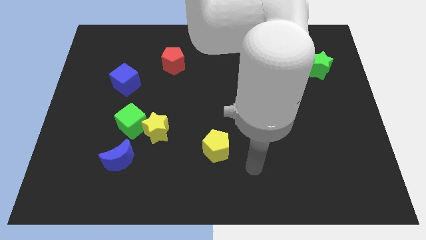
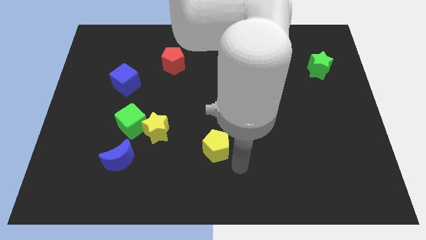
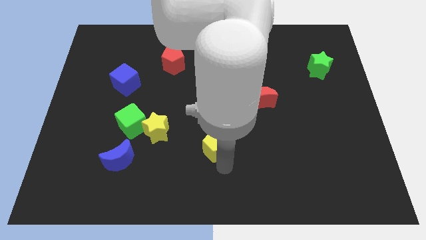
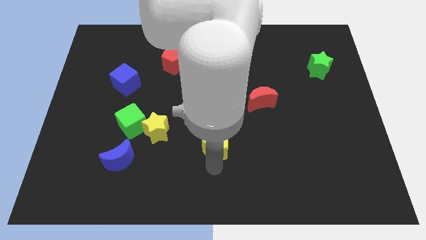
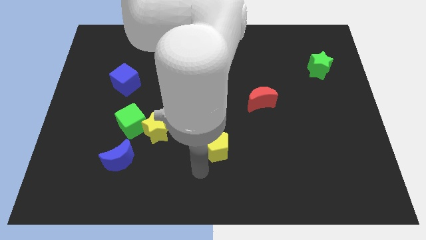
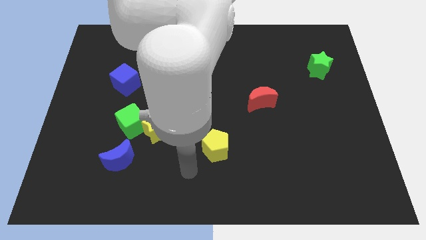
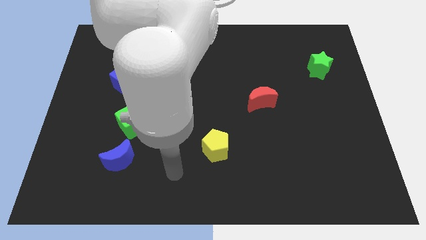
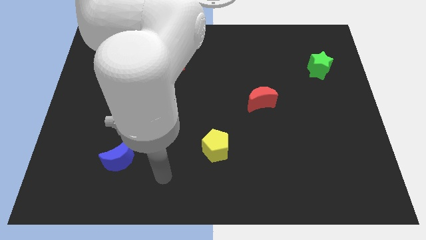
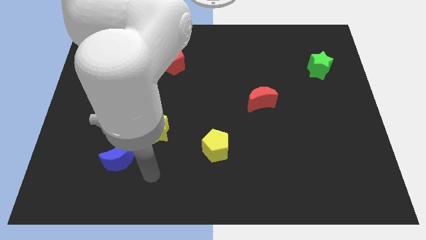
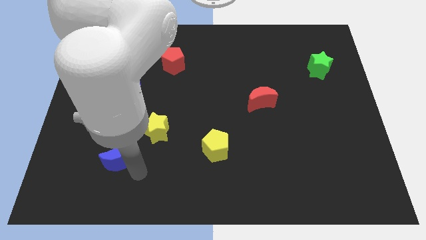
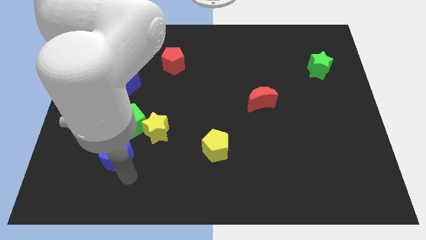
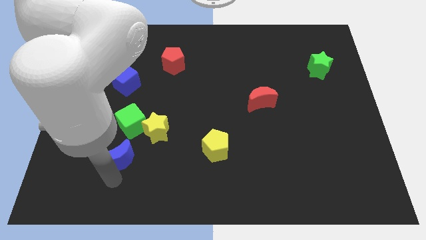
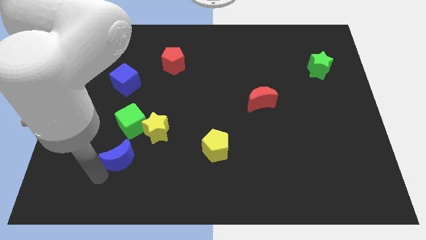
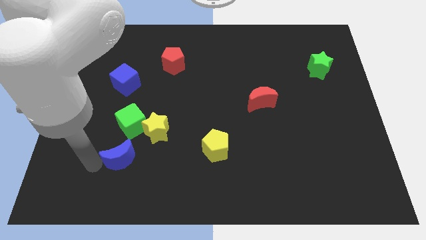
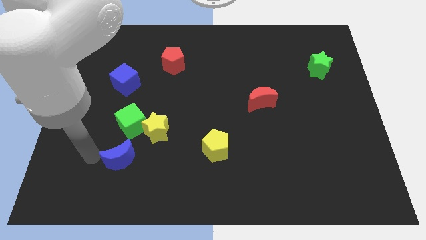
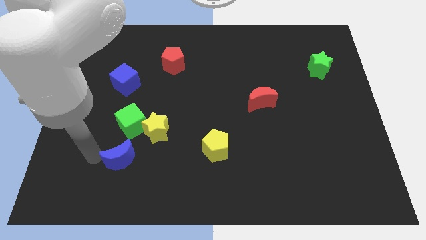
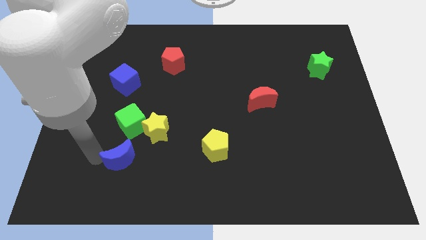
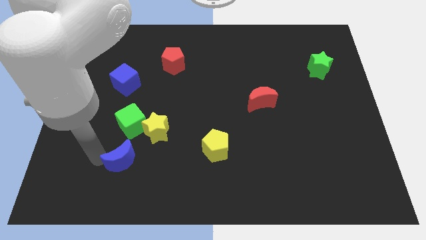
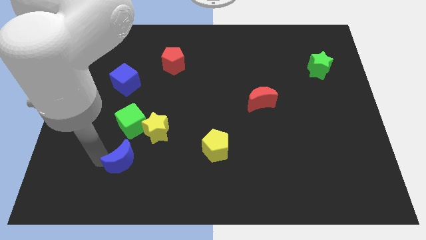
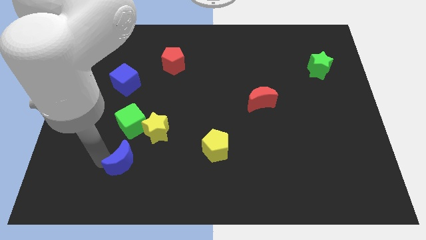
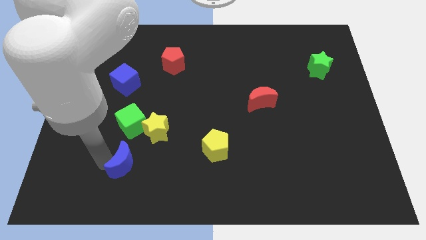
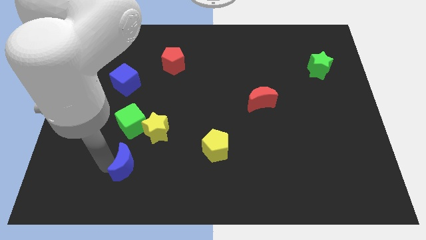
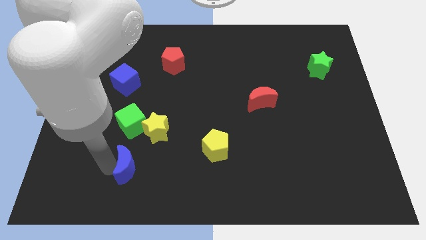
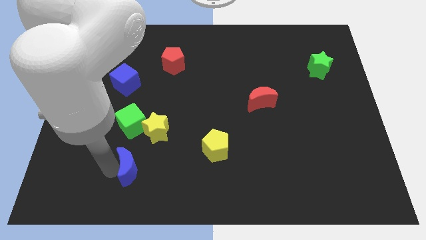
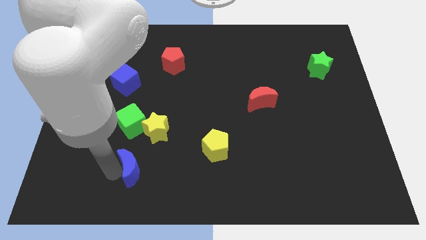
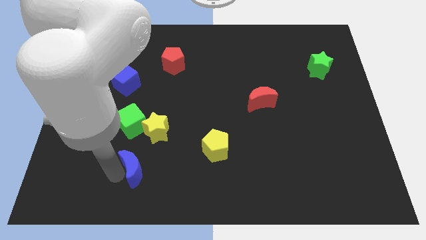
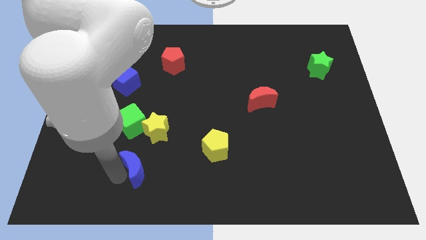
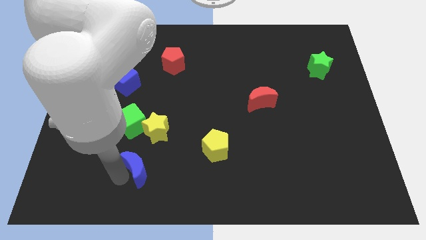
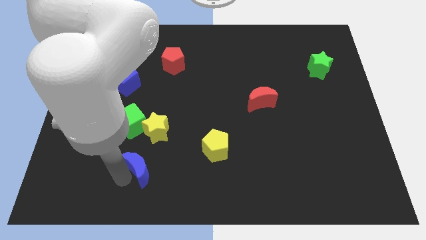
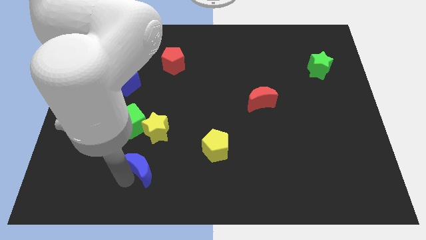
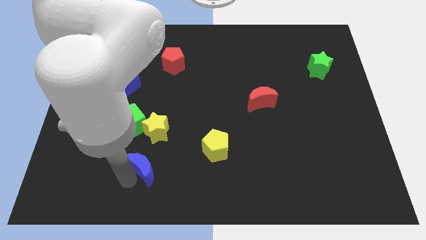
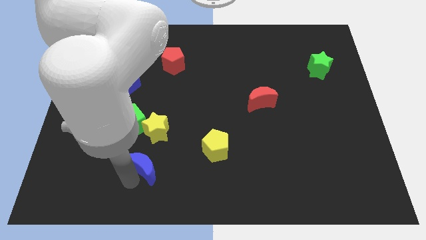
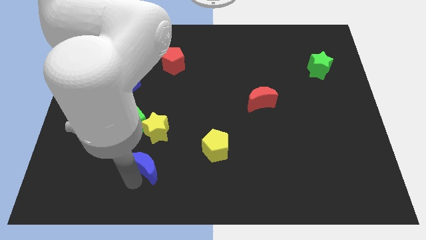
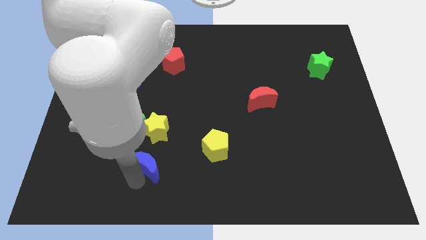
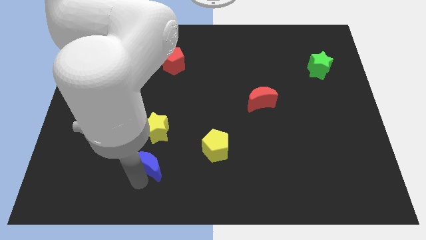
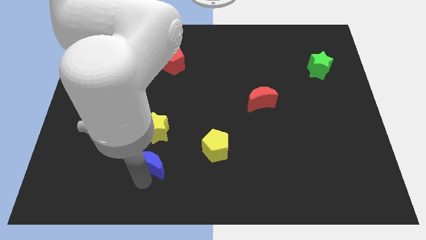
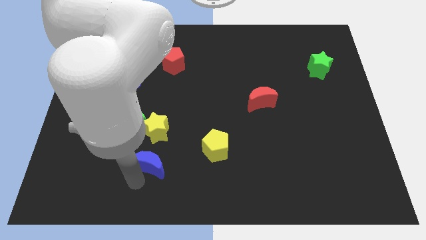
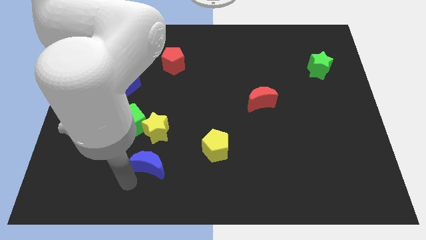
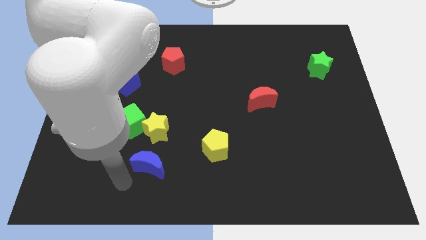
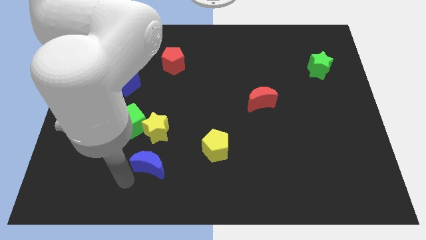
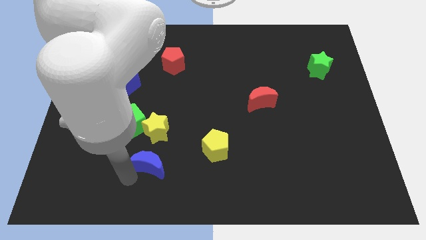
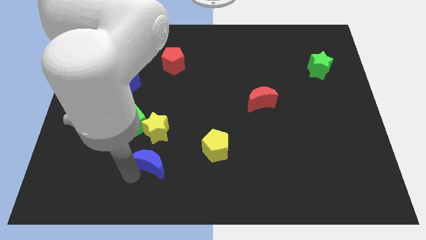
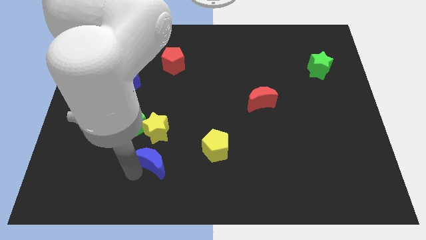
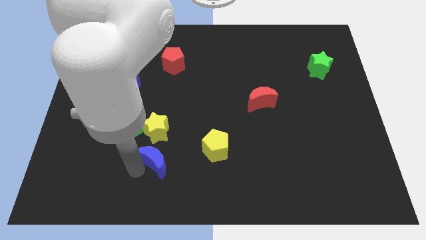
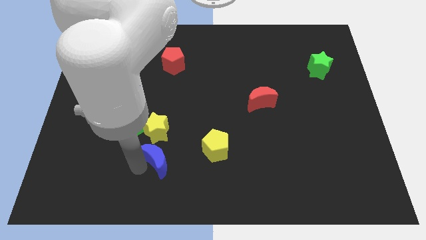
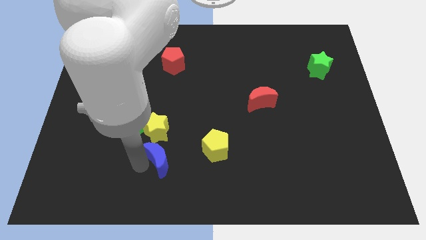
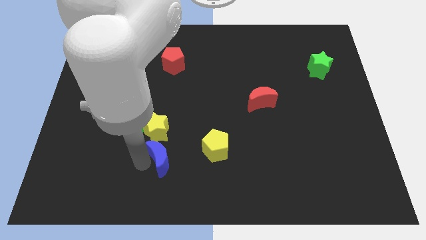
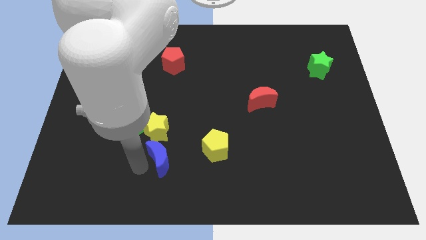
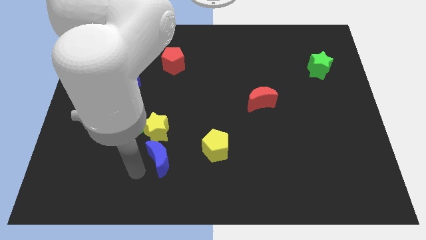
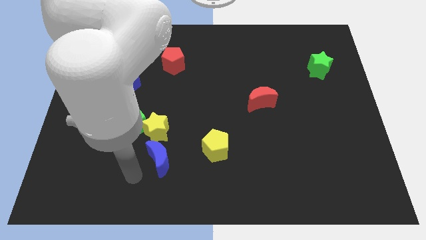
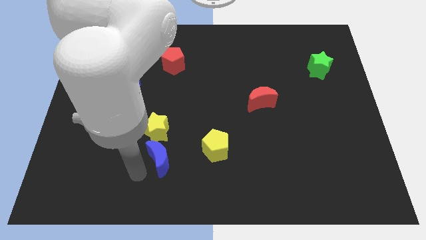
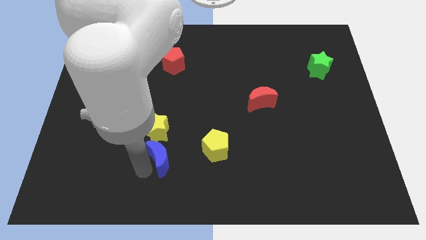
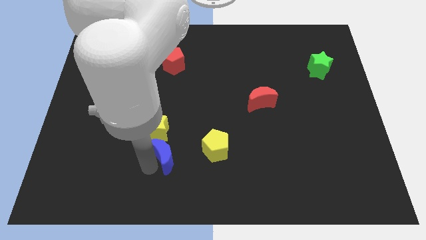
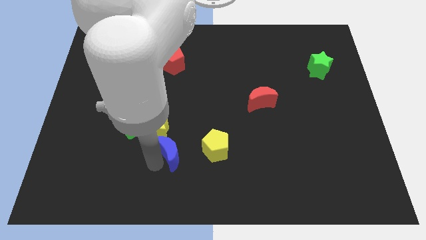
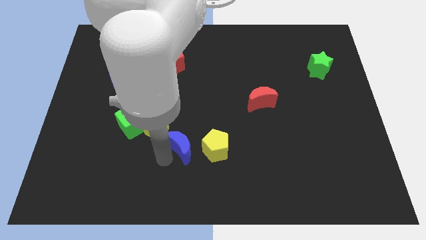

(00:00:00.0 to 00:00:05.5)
put the blue moon right of the yellow star

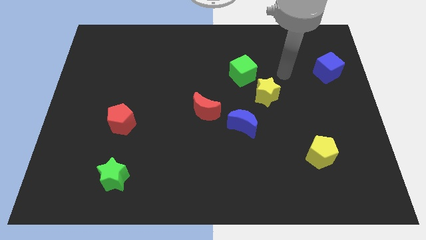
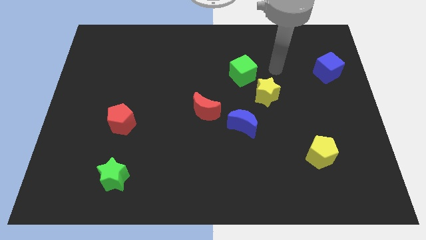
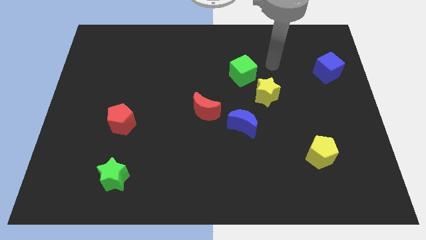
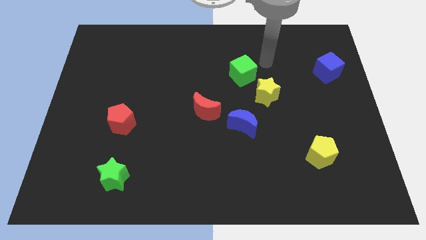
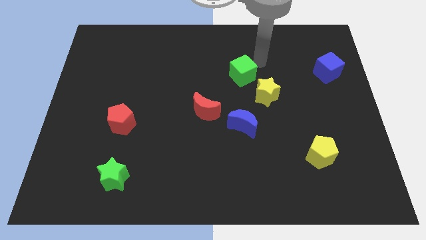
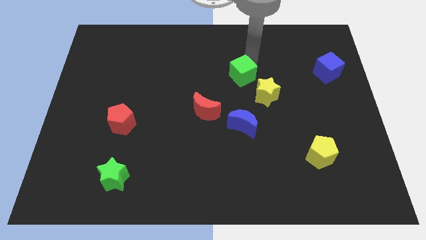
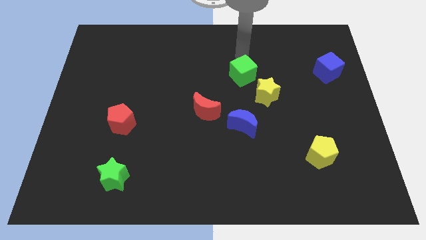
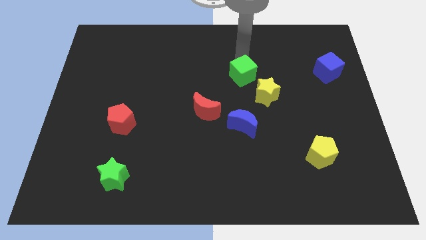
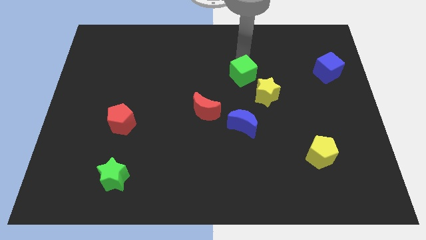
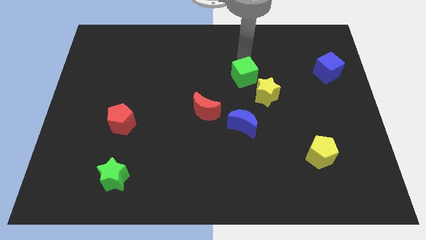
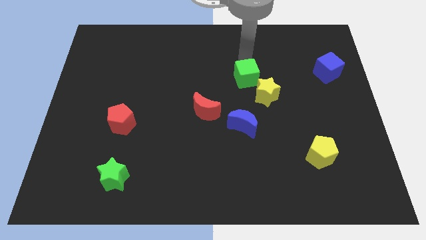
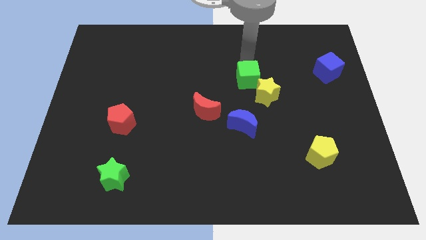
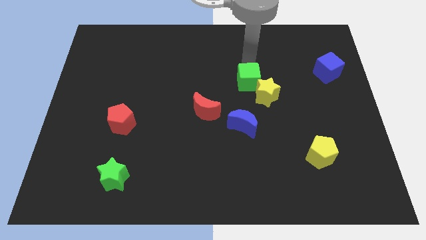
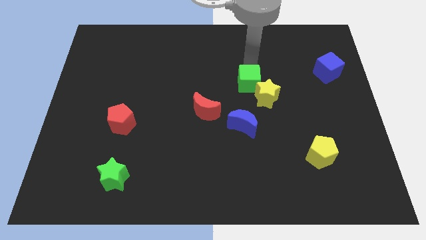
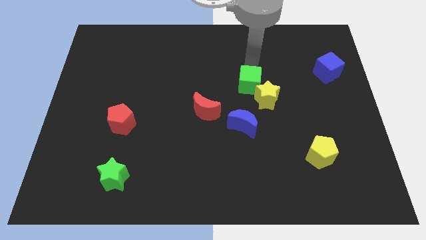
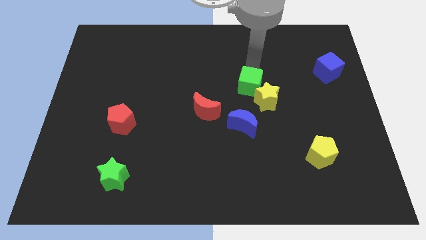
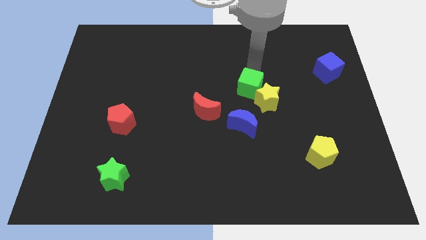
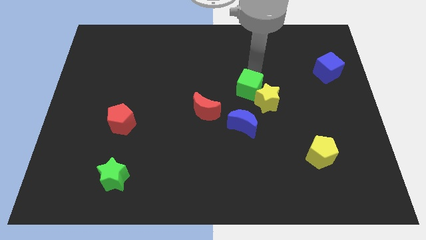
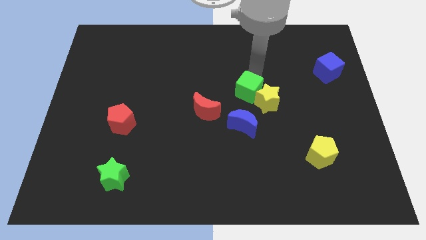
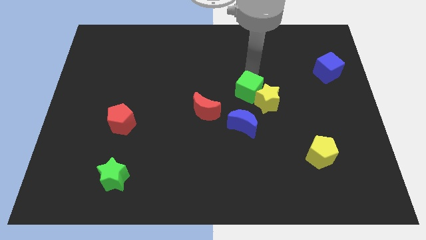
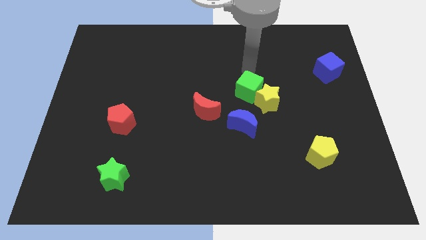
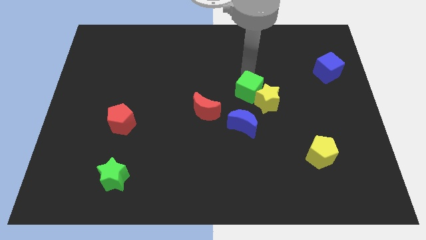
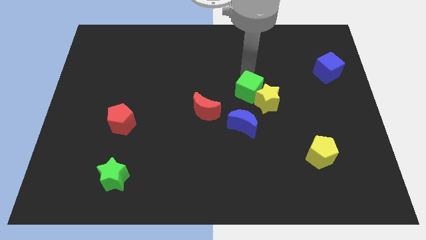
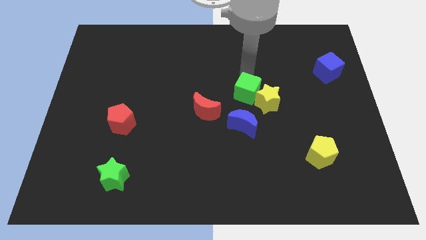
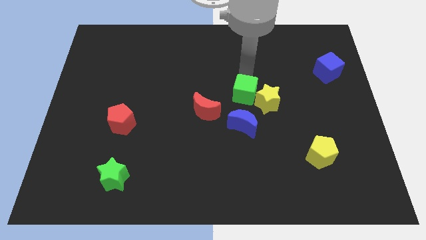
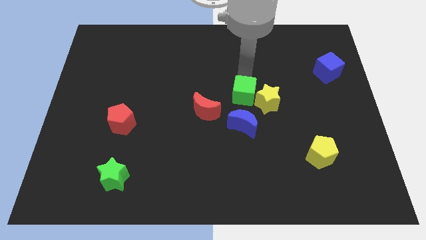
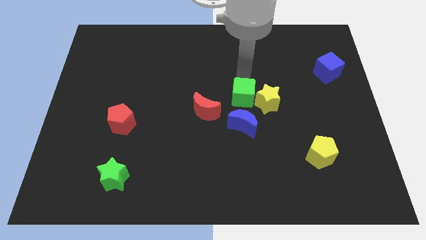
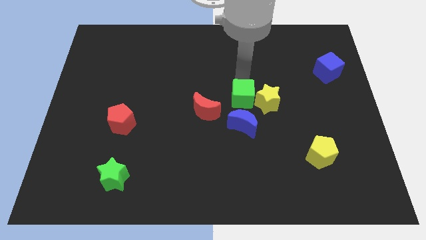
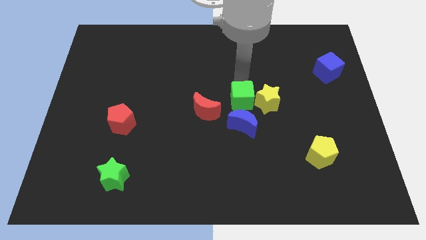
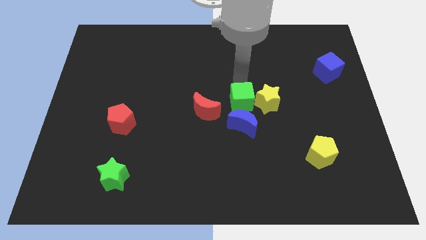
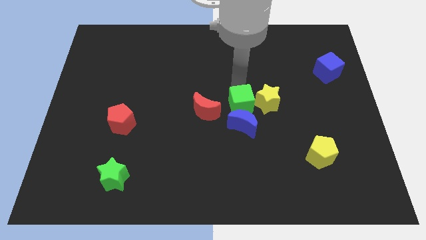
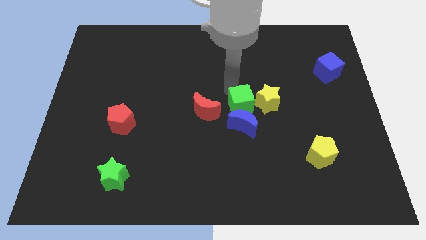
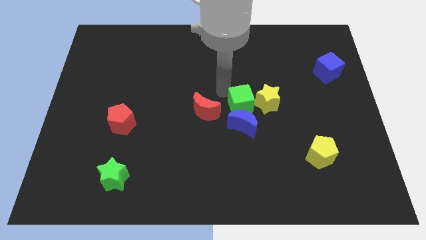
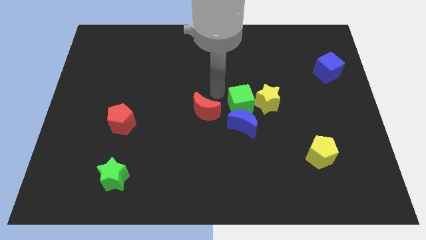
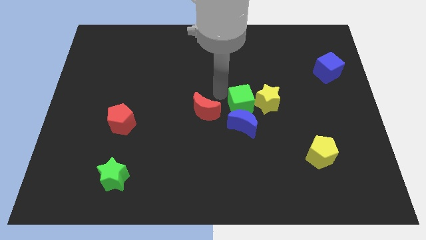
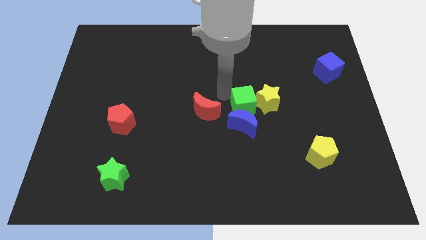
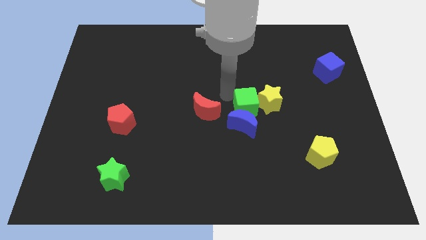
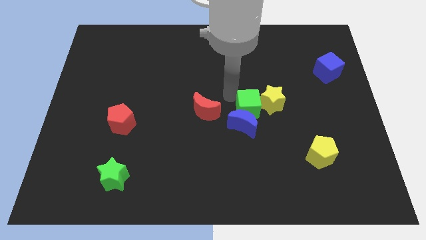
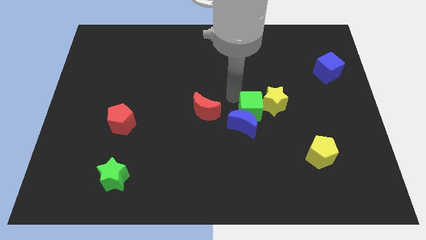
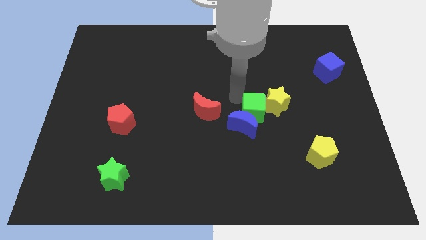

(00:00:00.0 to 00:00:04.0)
put the green cube just right of the blue moon
